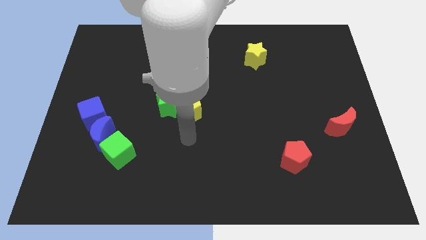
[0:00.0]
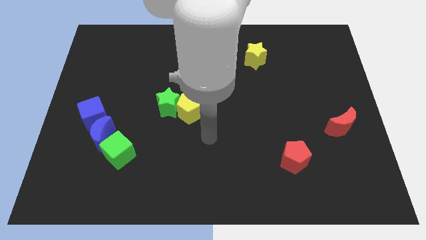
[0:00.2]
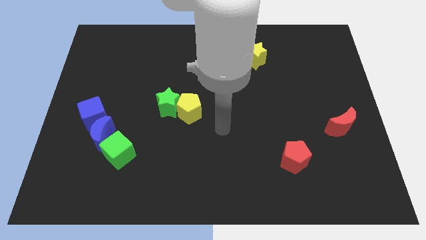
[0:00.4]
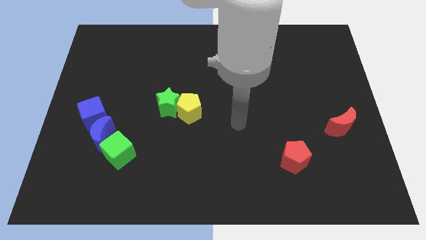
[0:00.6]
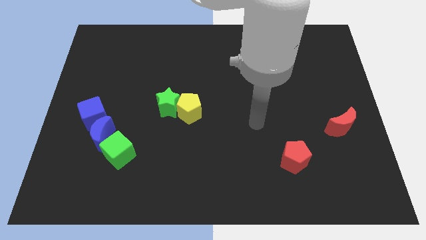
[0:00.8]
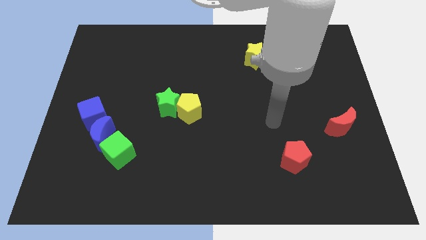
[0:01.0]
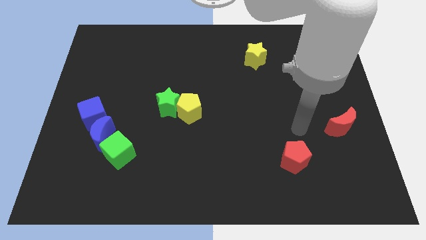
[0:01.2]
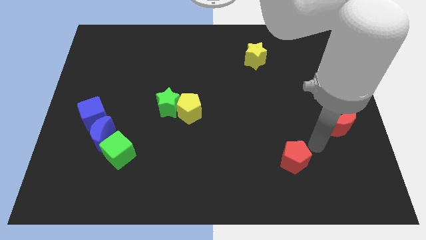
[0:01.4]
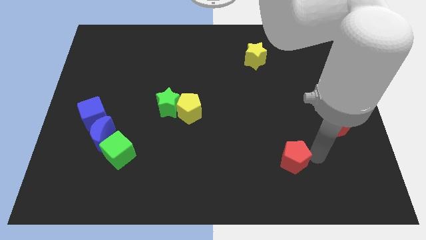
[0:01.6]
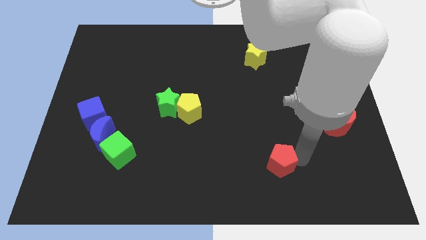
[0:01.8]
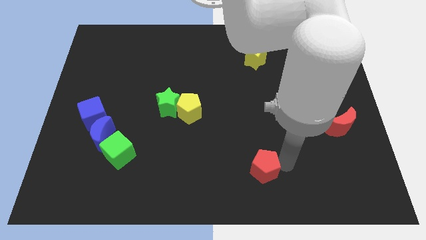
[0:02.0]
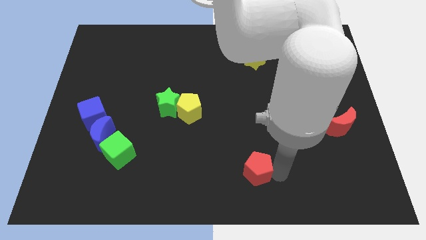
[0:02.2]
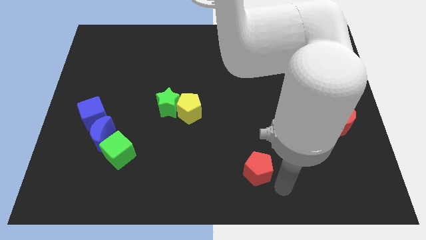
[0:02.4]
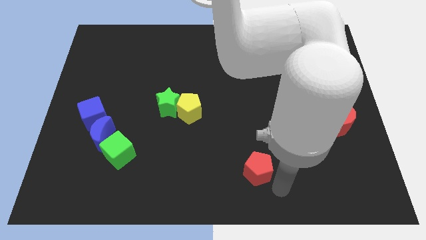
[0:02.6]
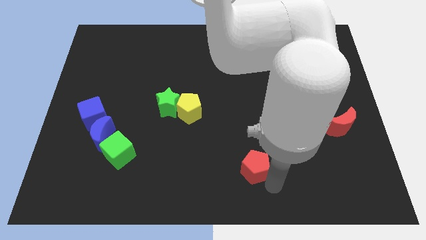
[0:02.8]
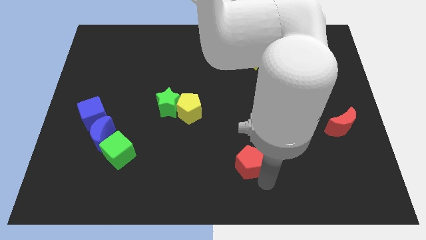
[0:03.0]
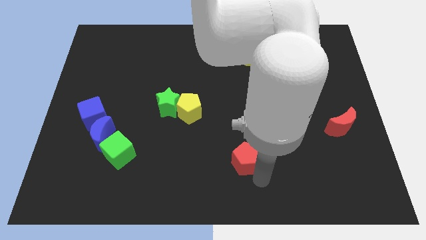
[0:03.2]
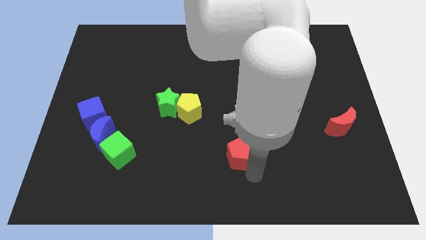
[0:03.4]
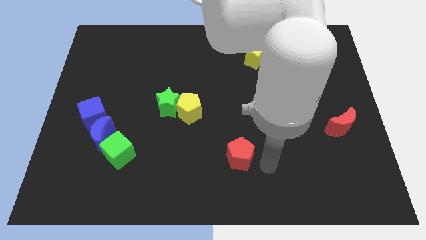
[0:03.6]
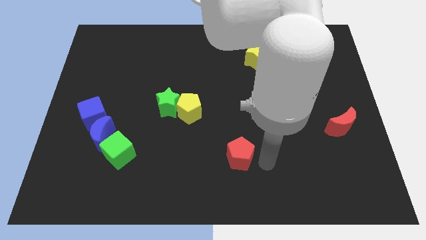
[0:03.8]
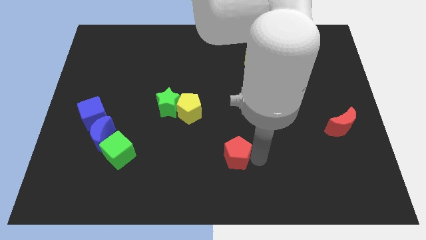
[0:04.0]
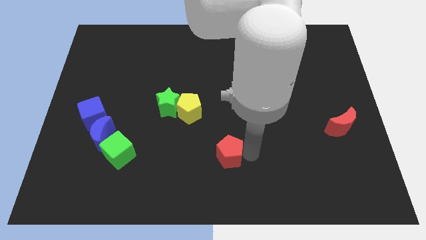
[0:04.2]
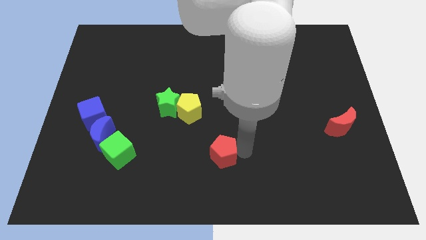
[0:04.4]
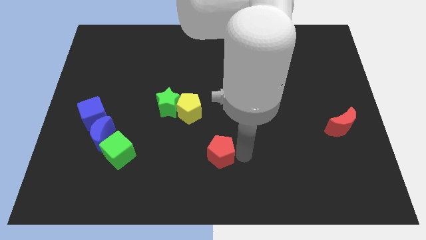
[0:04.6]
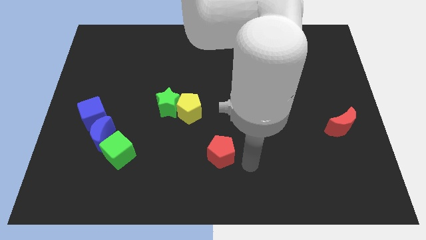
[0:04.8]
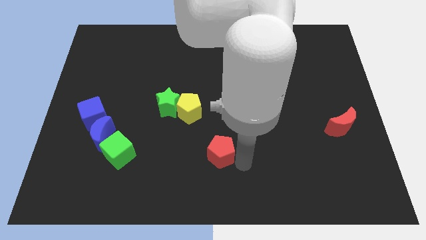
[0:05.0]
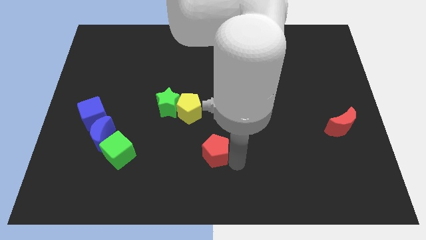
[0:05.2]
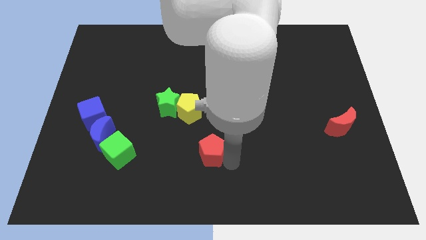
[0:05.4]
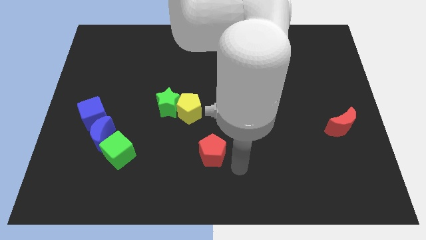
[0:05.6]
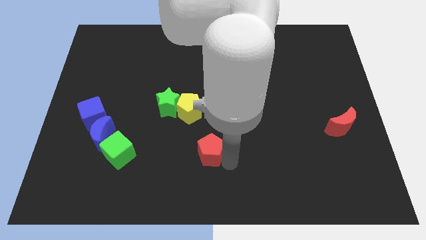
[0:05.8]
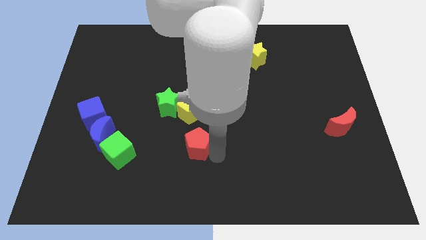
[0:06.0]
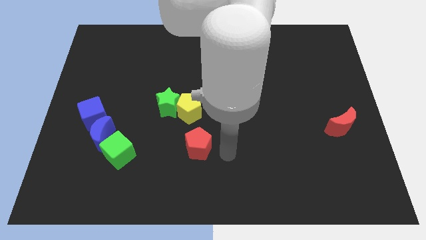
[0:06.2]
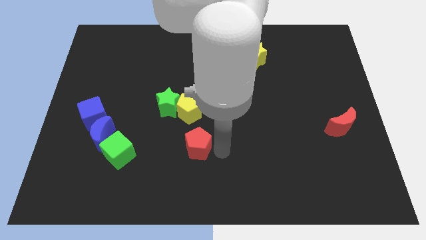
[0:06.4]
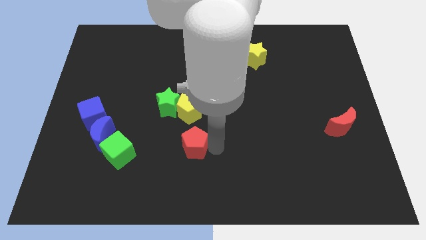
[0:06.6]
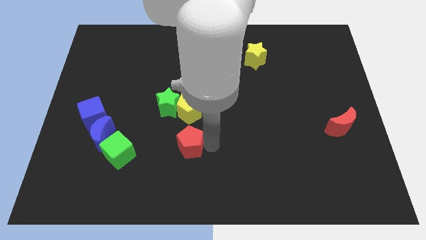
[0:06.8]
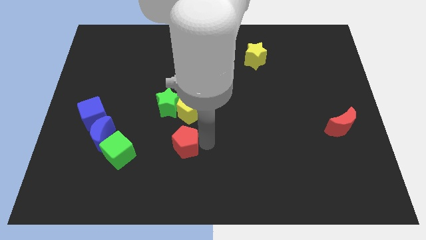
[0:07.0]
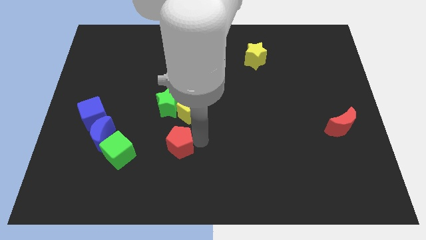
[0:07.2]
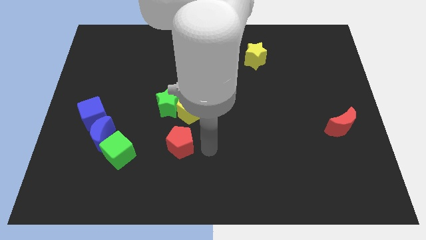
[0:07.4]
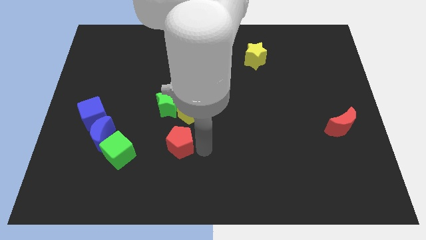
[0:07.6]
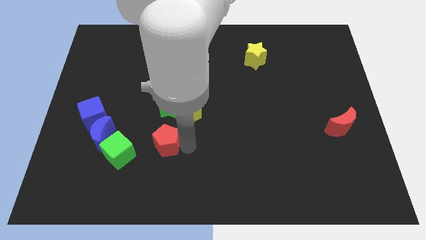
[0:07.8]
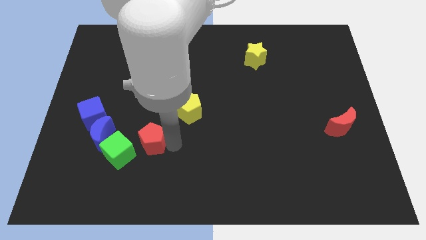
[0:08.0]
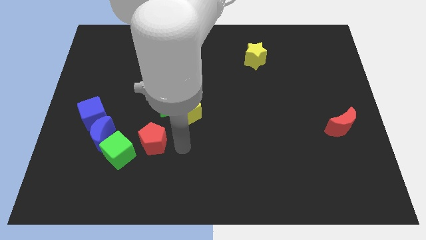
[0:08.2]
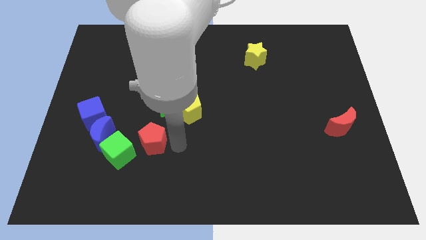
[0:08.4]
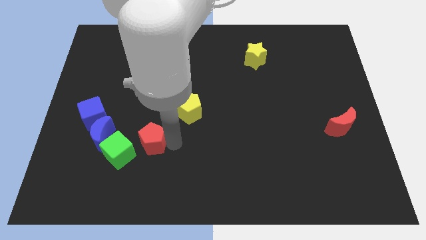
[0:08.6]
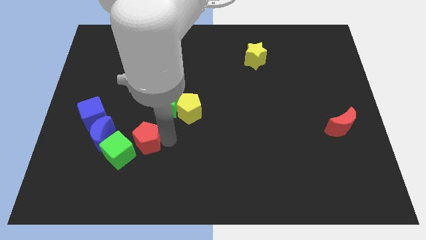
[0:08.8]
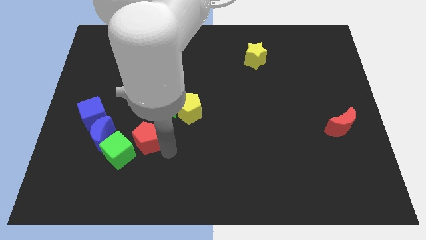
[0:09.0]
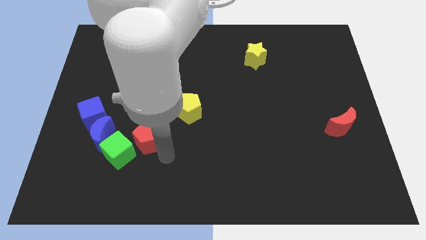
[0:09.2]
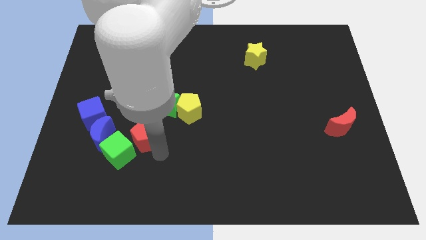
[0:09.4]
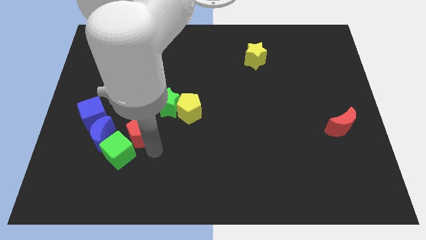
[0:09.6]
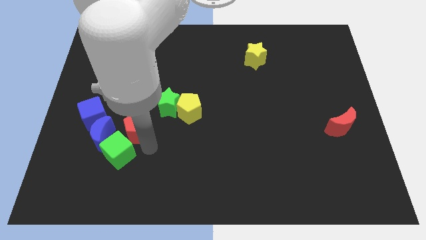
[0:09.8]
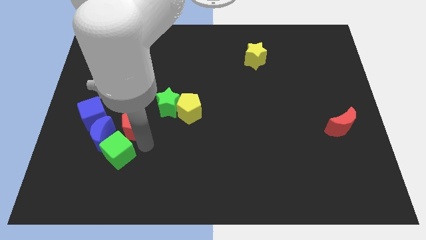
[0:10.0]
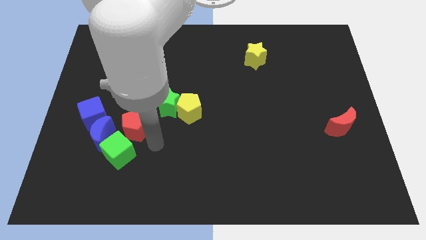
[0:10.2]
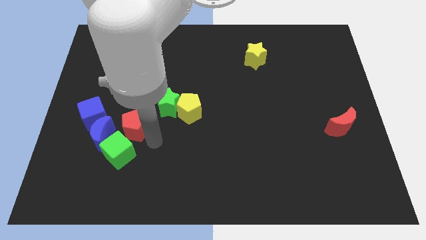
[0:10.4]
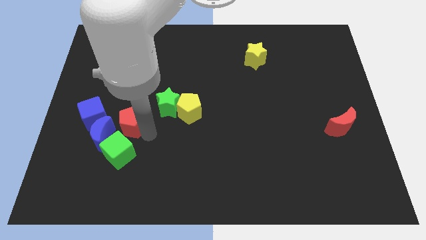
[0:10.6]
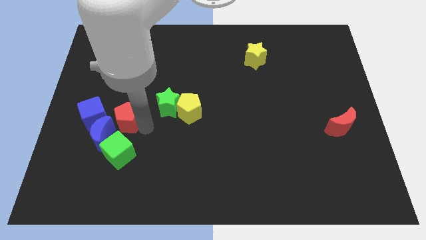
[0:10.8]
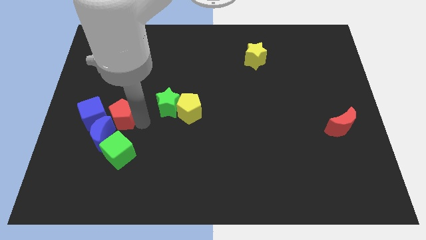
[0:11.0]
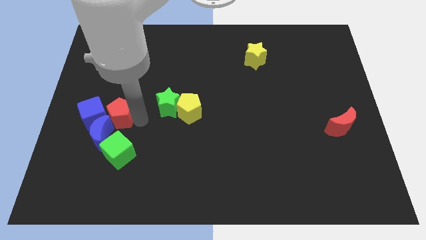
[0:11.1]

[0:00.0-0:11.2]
put the red pentagon next to the blue cube

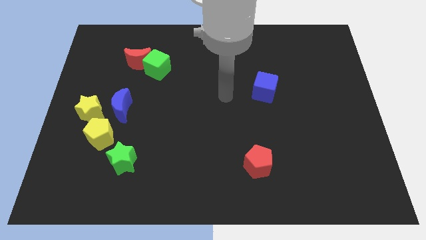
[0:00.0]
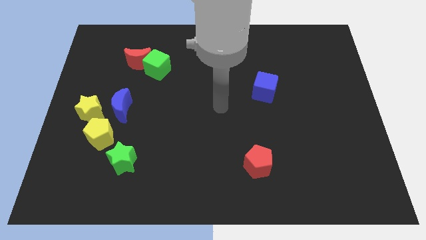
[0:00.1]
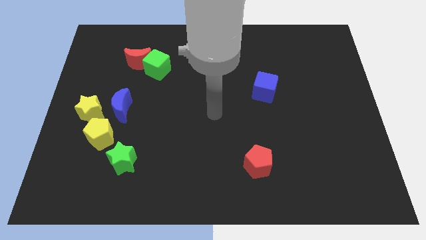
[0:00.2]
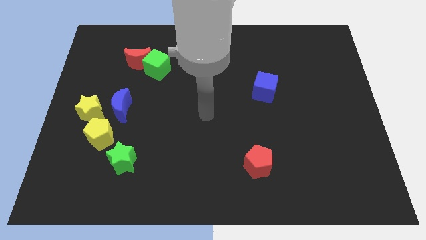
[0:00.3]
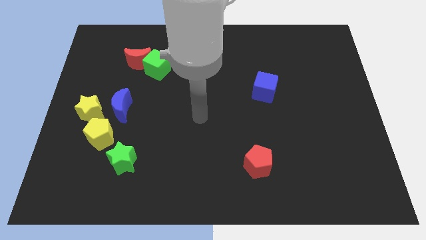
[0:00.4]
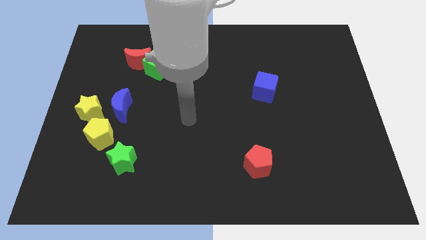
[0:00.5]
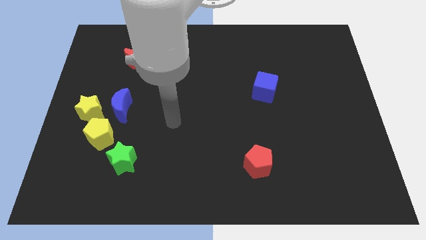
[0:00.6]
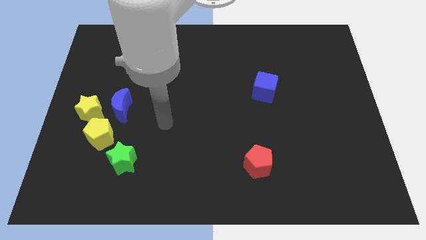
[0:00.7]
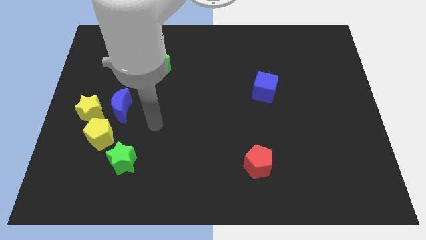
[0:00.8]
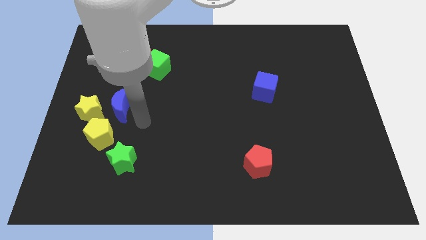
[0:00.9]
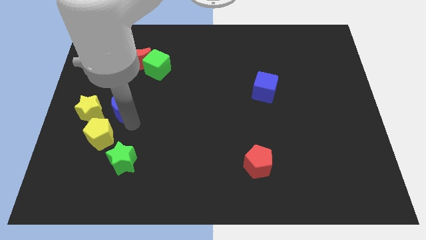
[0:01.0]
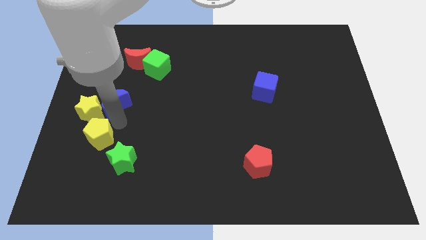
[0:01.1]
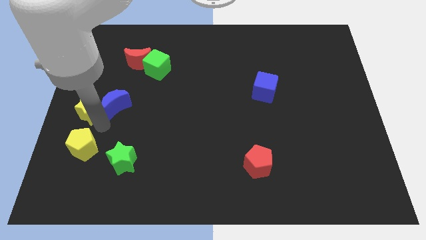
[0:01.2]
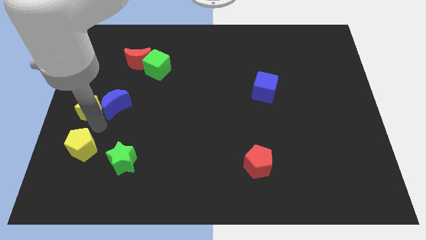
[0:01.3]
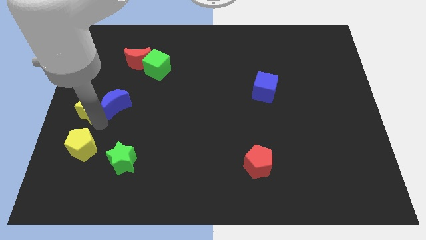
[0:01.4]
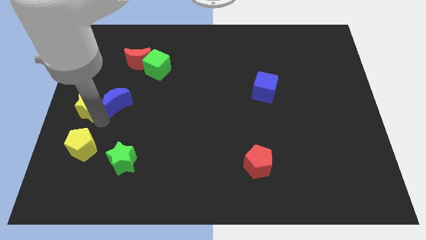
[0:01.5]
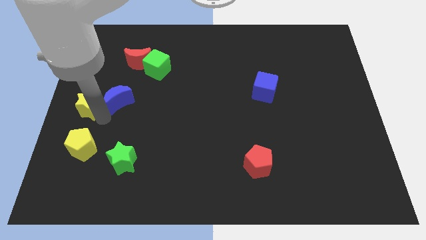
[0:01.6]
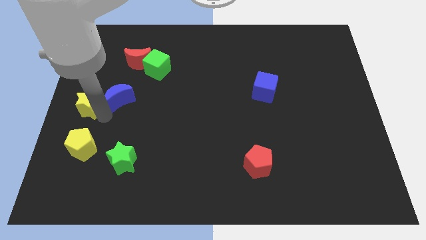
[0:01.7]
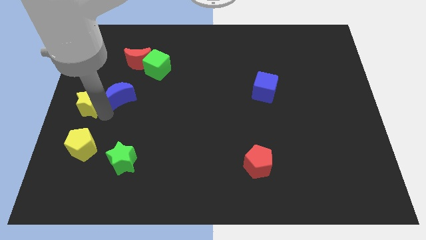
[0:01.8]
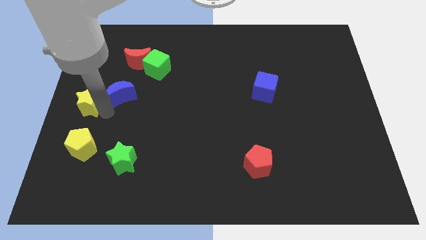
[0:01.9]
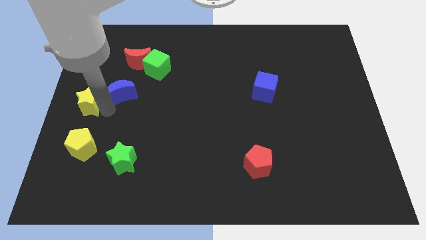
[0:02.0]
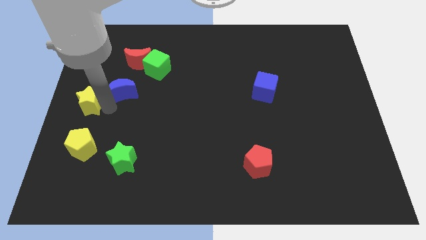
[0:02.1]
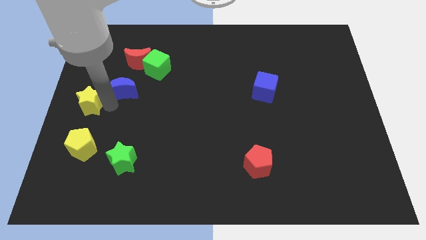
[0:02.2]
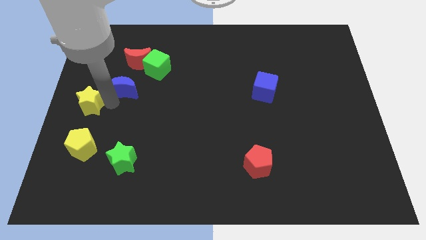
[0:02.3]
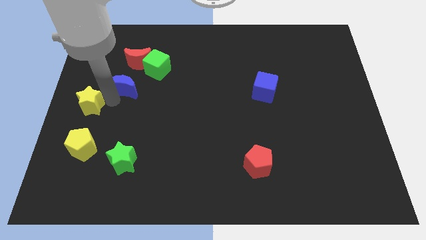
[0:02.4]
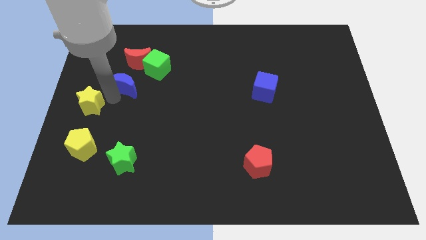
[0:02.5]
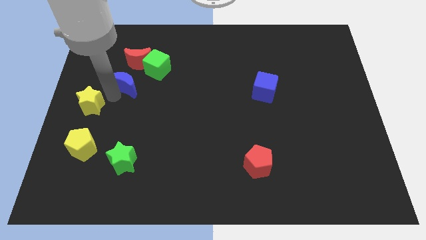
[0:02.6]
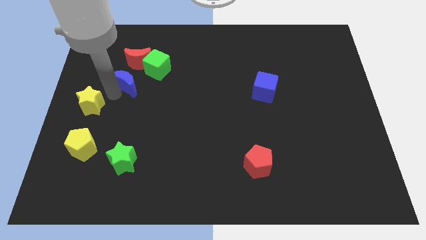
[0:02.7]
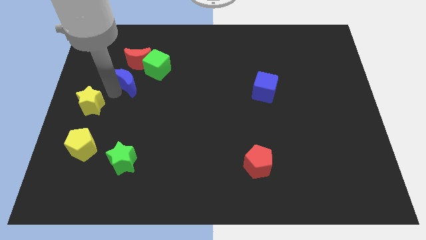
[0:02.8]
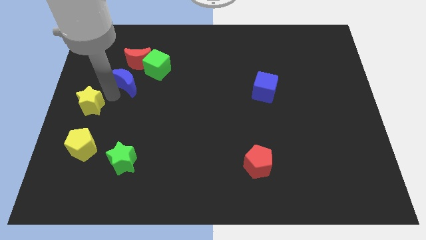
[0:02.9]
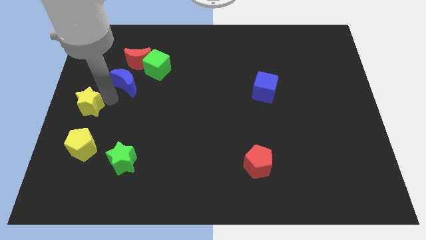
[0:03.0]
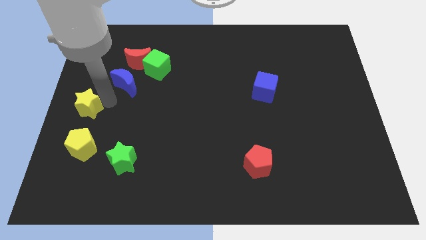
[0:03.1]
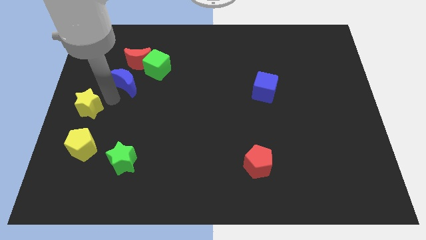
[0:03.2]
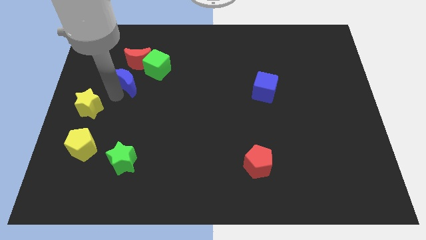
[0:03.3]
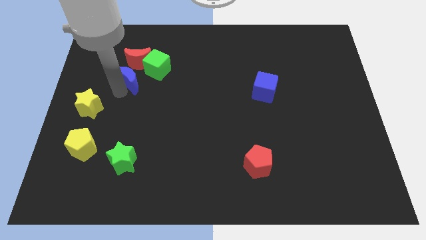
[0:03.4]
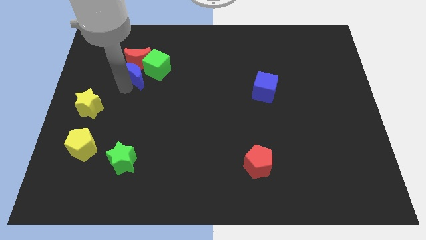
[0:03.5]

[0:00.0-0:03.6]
push the blue moon towards the red moon
